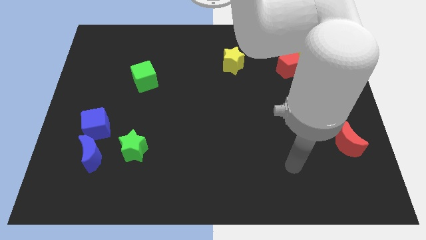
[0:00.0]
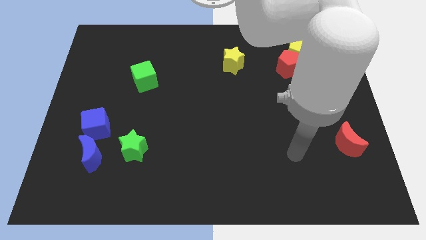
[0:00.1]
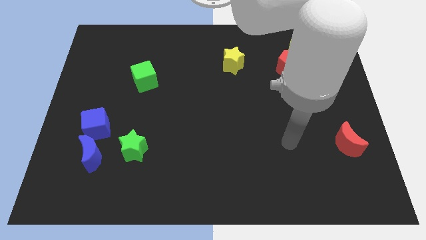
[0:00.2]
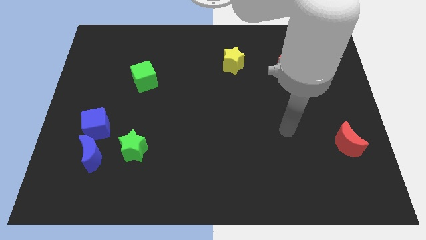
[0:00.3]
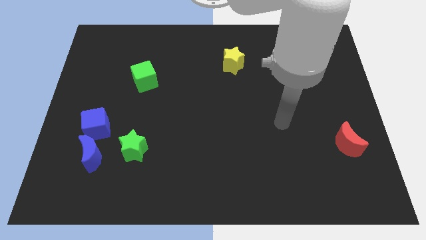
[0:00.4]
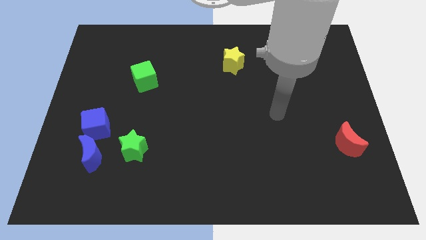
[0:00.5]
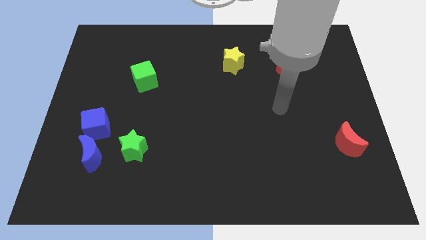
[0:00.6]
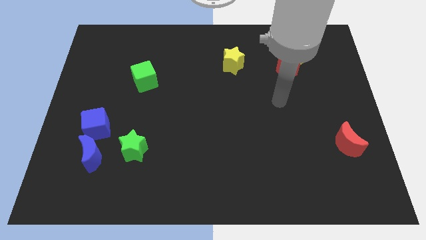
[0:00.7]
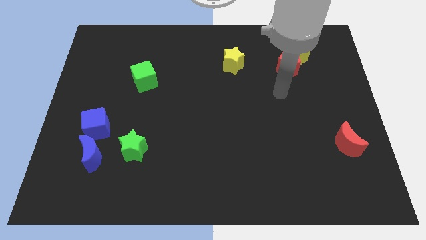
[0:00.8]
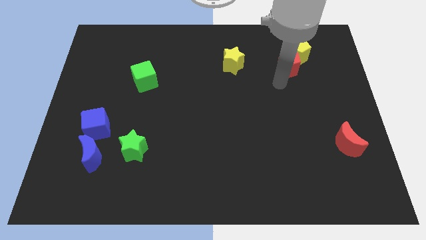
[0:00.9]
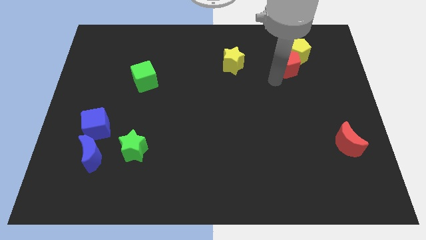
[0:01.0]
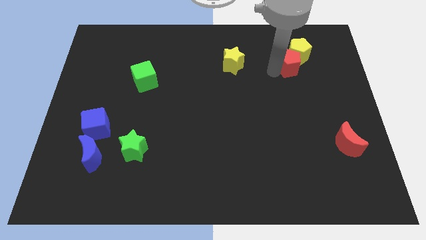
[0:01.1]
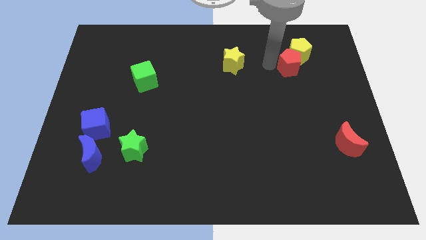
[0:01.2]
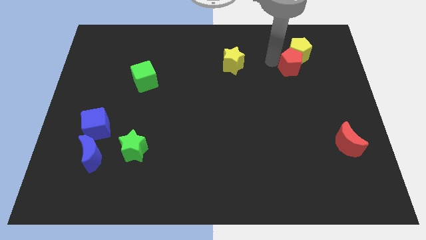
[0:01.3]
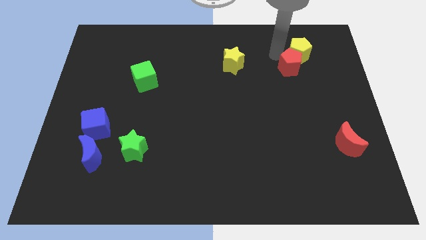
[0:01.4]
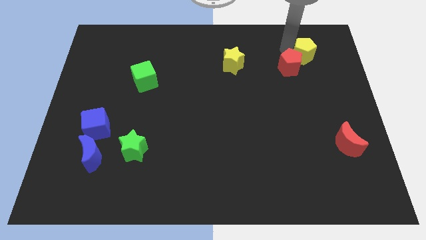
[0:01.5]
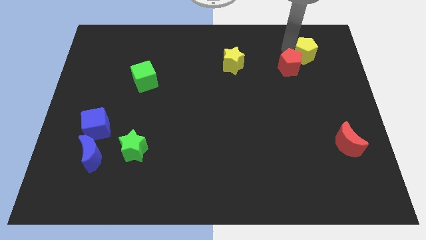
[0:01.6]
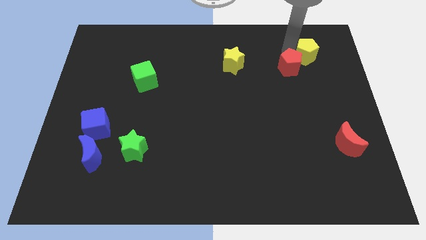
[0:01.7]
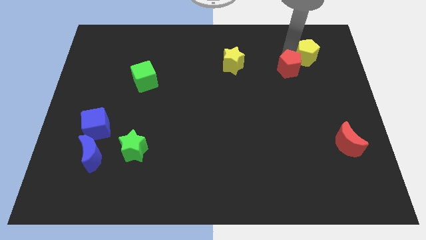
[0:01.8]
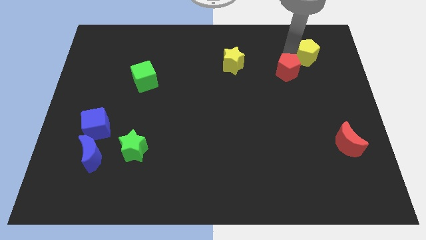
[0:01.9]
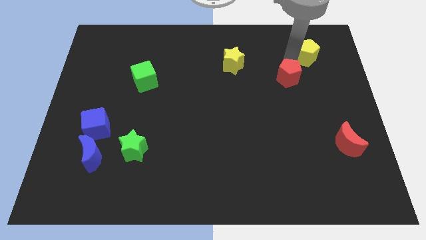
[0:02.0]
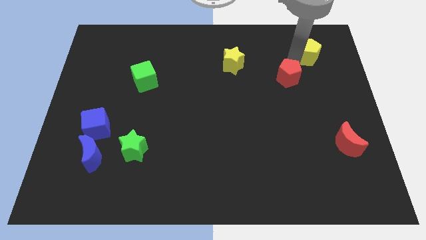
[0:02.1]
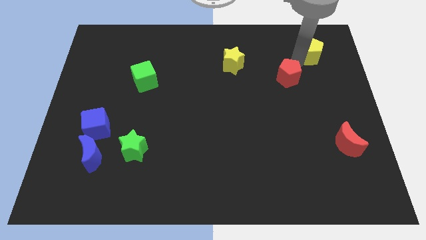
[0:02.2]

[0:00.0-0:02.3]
pull the red pentagon apart from the yellow pentagon

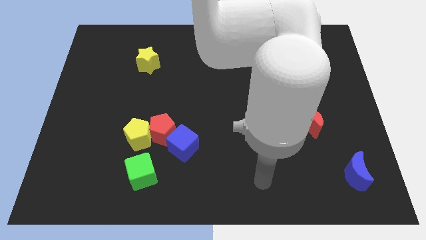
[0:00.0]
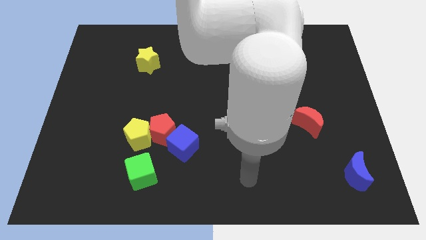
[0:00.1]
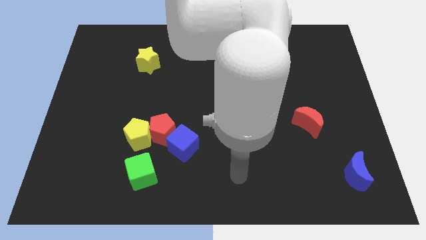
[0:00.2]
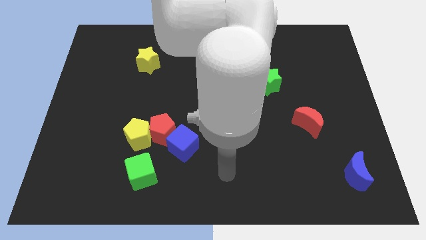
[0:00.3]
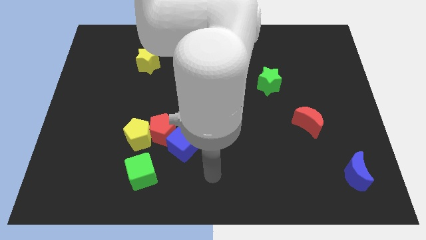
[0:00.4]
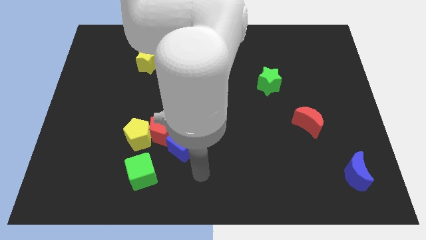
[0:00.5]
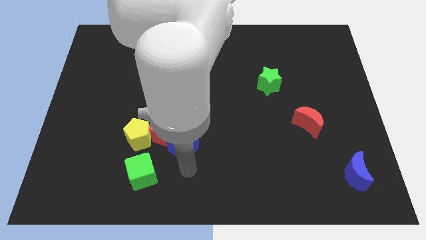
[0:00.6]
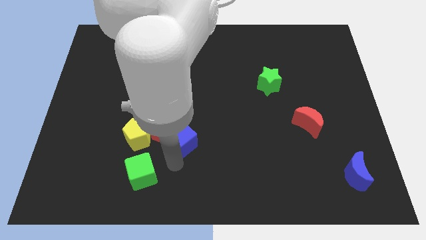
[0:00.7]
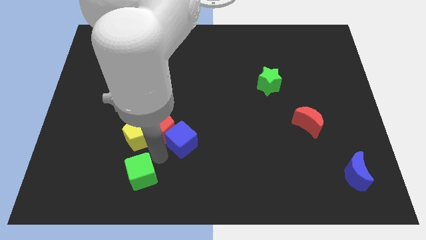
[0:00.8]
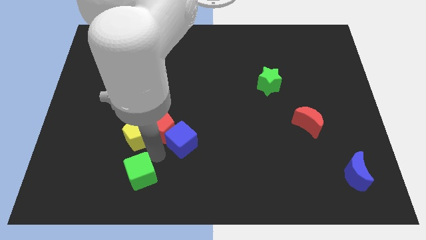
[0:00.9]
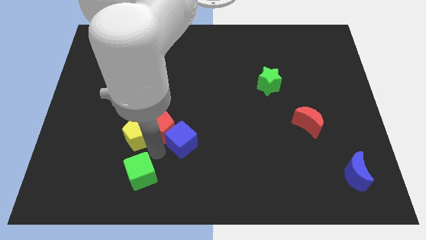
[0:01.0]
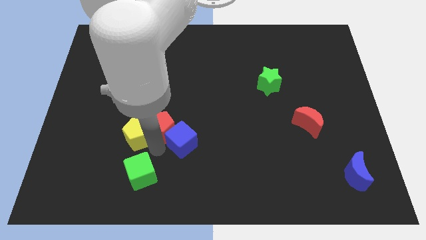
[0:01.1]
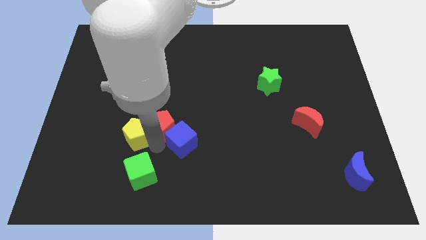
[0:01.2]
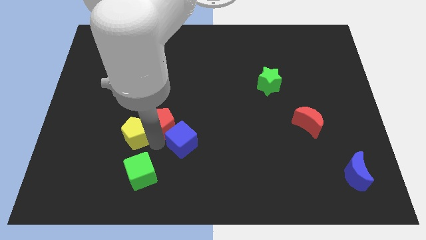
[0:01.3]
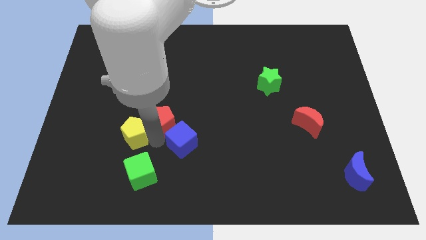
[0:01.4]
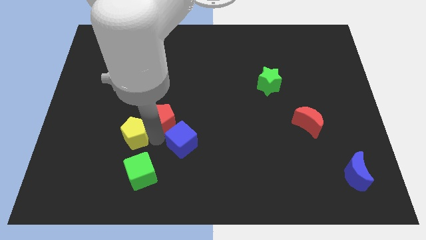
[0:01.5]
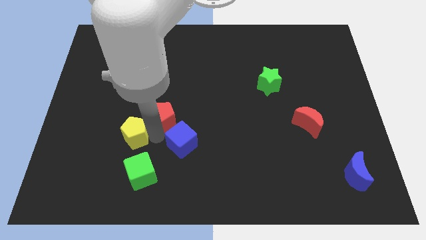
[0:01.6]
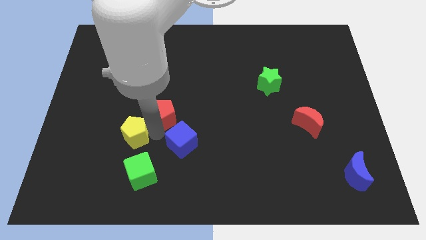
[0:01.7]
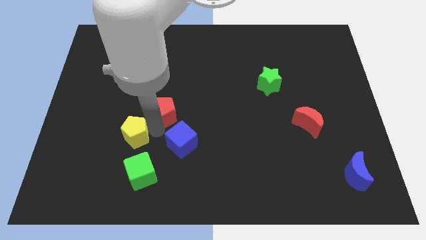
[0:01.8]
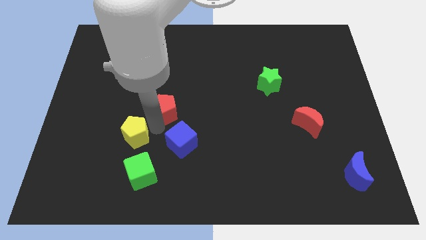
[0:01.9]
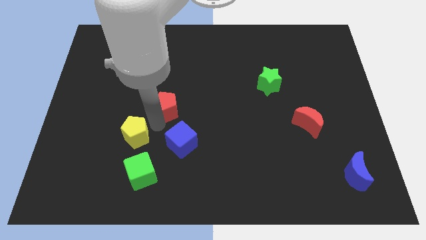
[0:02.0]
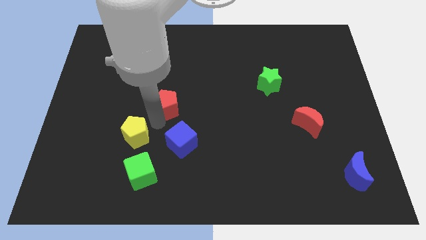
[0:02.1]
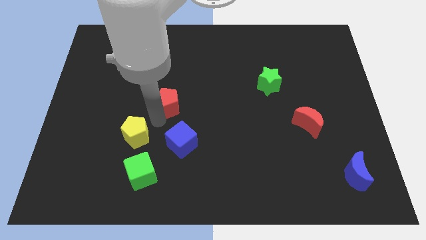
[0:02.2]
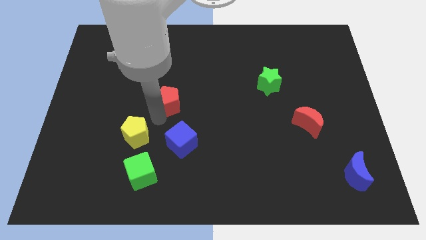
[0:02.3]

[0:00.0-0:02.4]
separate the red pentagon from the yellow pentagon and blue cube

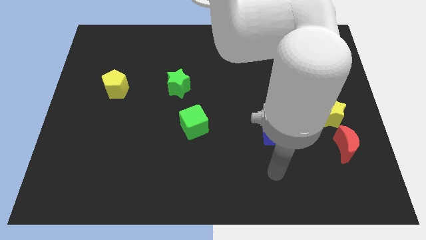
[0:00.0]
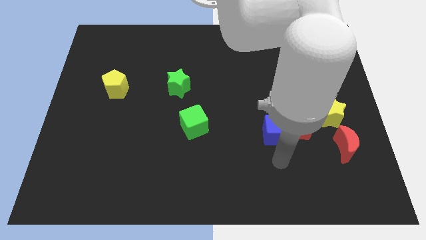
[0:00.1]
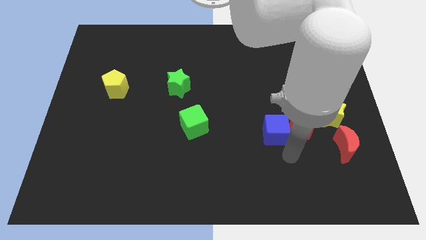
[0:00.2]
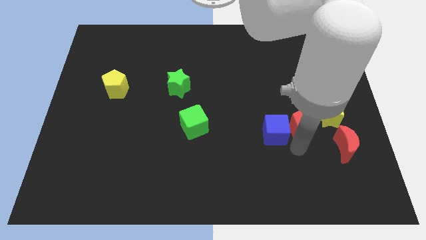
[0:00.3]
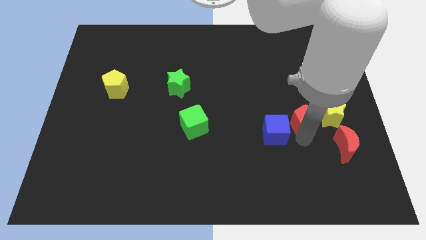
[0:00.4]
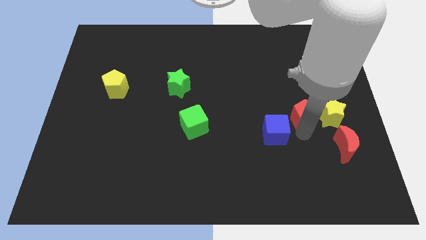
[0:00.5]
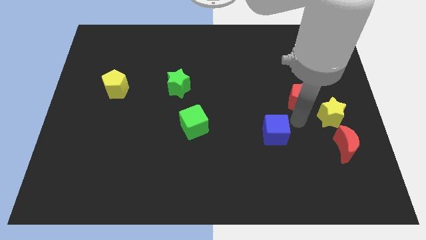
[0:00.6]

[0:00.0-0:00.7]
pull the blue cube apart from the red pentagon

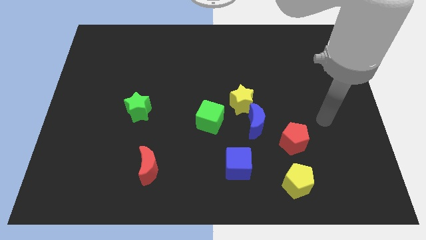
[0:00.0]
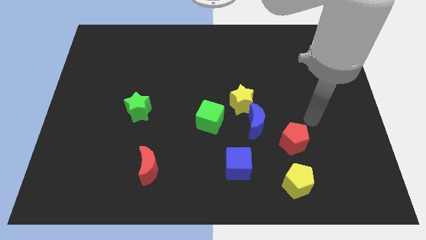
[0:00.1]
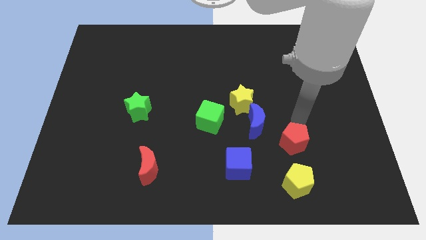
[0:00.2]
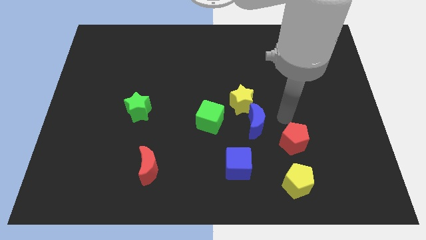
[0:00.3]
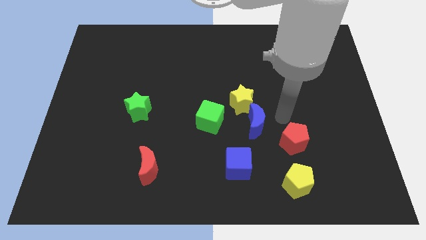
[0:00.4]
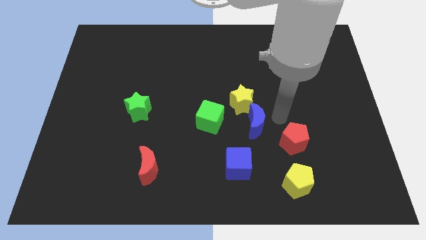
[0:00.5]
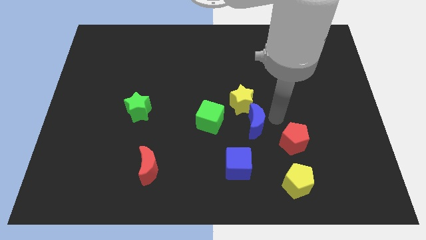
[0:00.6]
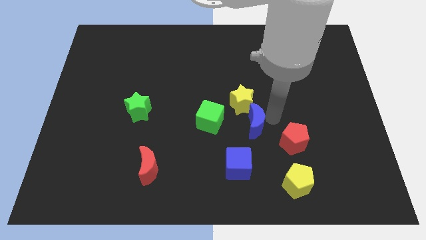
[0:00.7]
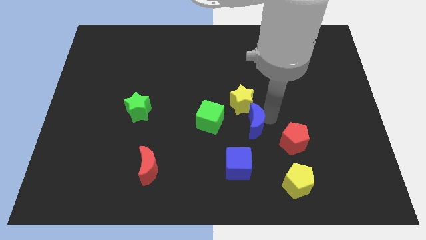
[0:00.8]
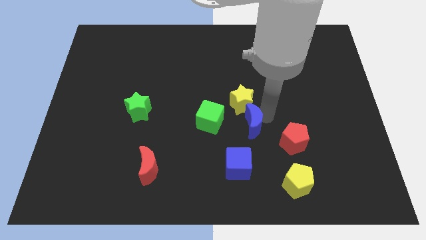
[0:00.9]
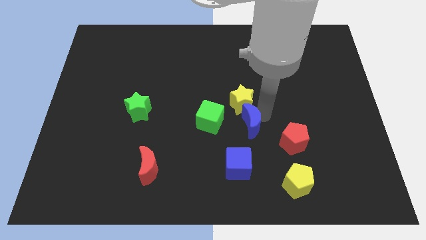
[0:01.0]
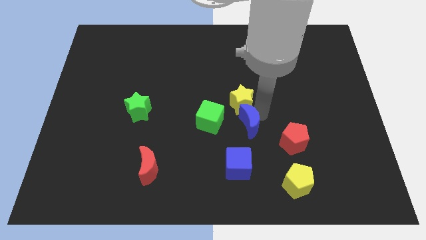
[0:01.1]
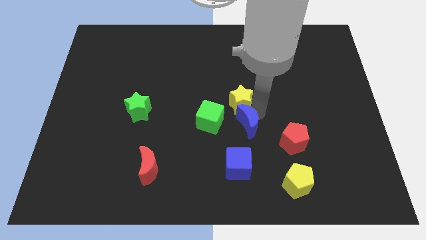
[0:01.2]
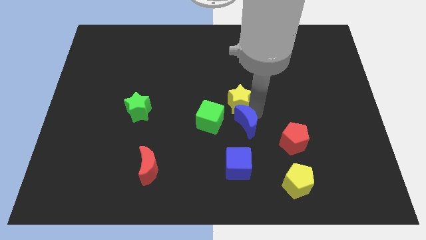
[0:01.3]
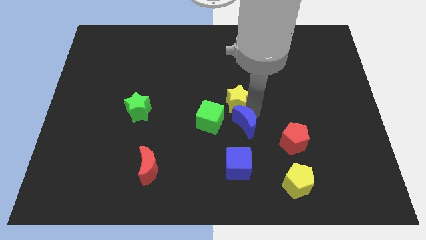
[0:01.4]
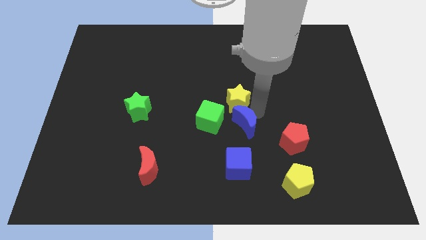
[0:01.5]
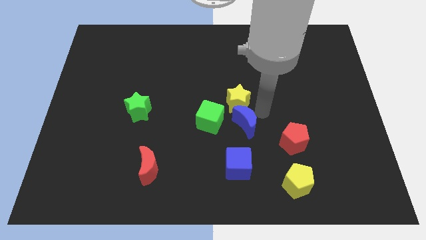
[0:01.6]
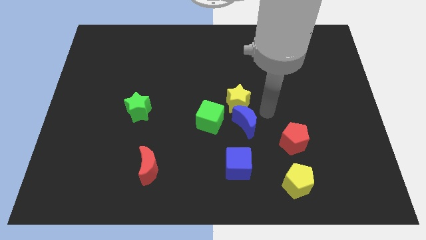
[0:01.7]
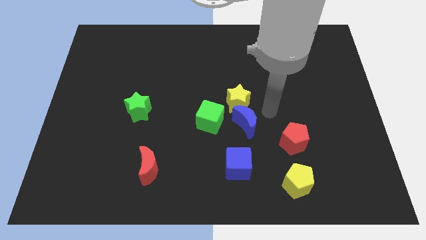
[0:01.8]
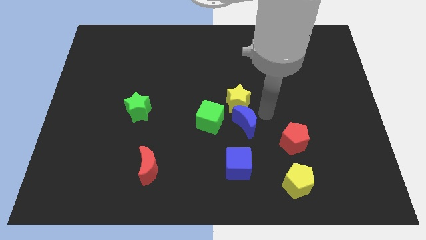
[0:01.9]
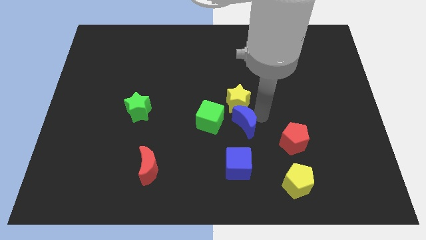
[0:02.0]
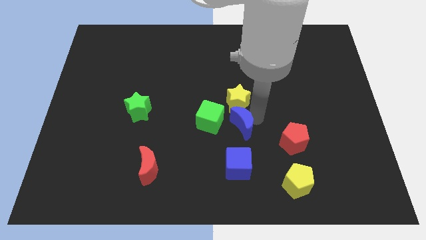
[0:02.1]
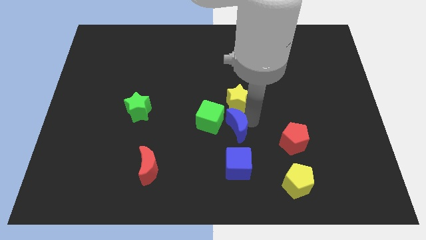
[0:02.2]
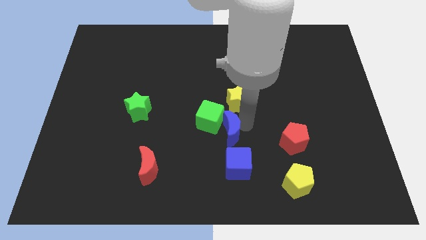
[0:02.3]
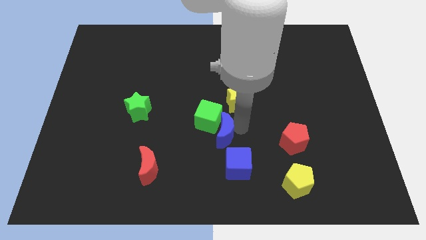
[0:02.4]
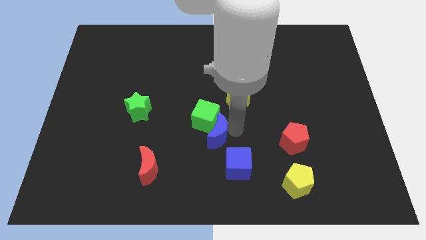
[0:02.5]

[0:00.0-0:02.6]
pull the blue moon apart from the yellow star and red pentagon

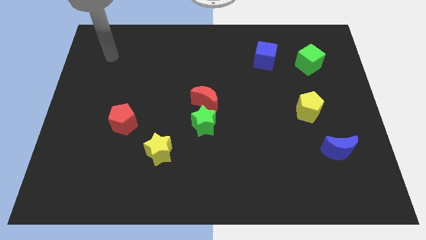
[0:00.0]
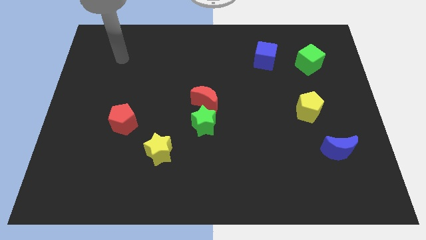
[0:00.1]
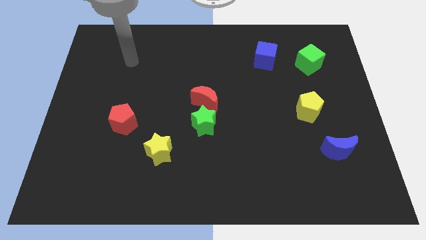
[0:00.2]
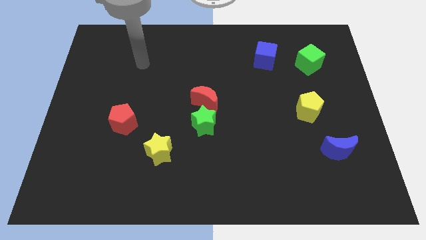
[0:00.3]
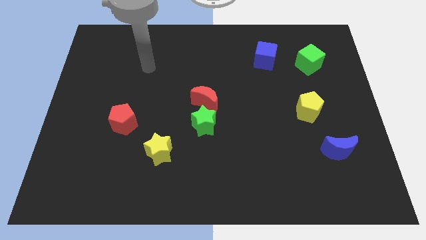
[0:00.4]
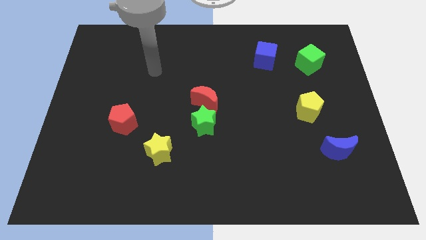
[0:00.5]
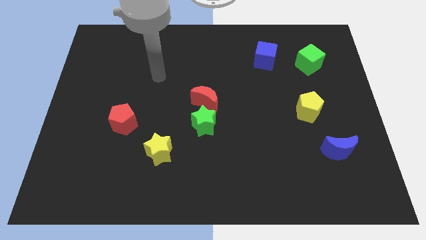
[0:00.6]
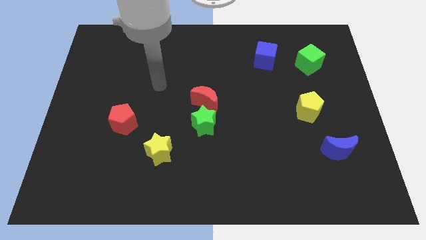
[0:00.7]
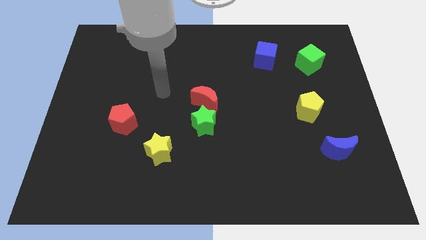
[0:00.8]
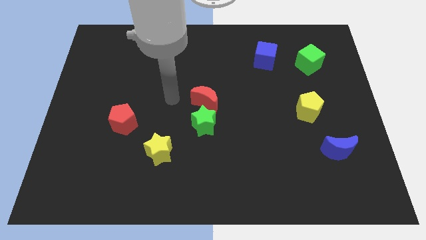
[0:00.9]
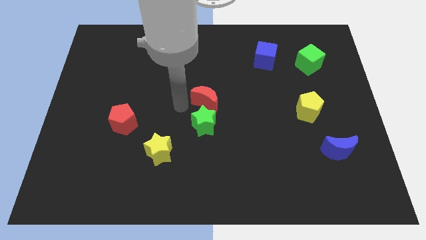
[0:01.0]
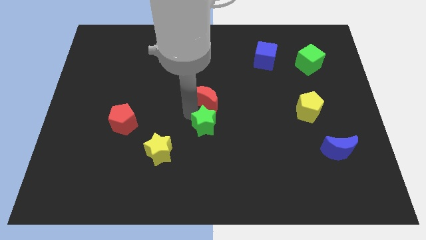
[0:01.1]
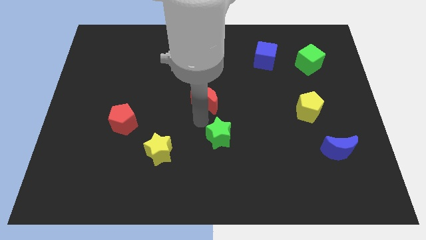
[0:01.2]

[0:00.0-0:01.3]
move the red moon away from the green star
